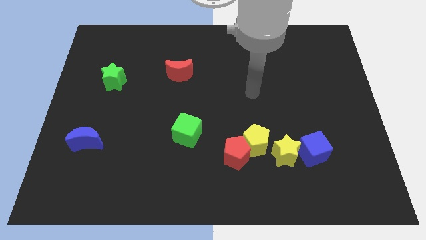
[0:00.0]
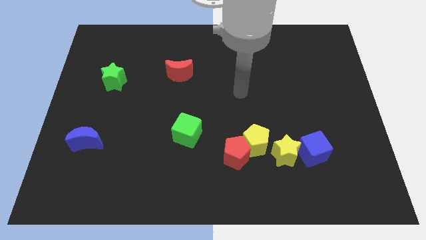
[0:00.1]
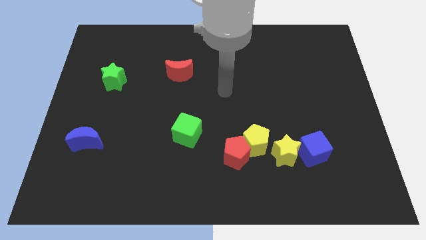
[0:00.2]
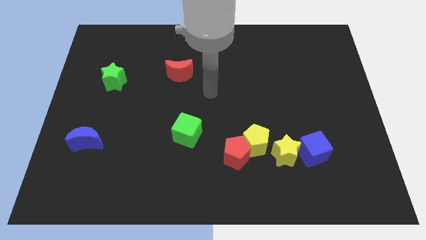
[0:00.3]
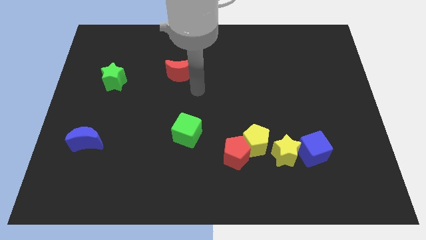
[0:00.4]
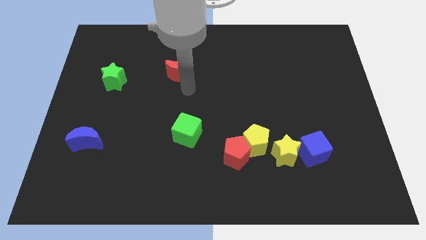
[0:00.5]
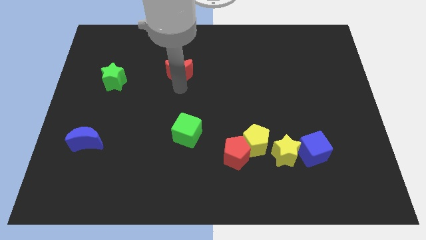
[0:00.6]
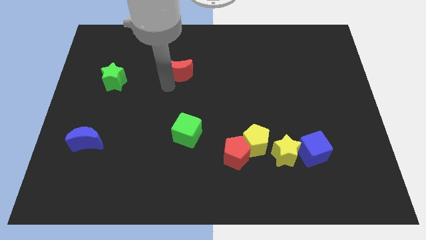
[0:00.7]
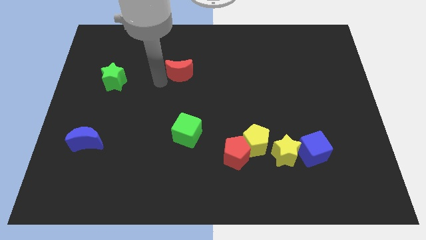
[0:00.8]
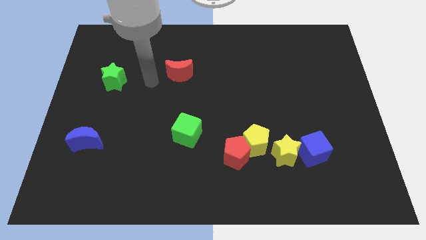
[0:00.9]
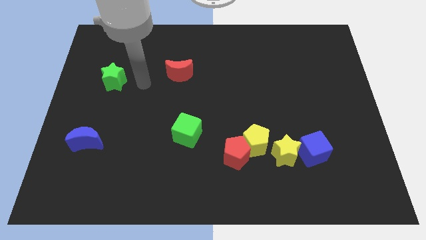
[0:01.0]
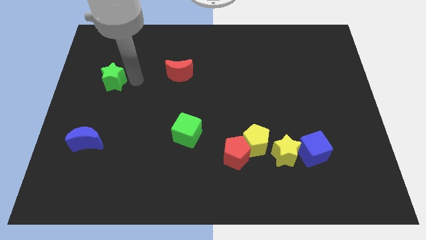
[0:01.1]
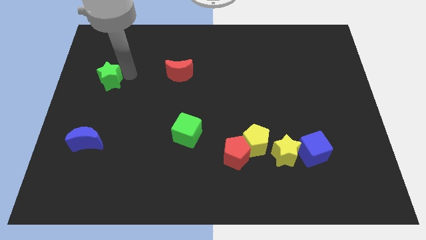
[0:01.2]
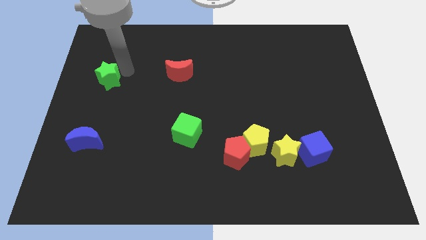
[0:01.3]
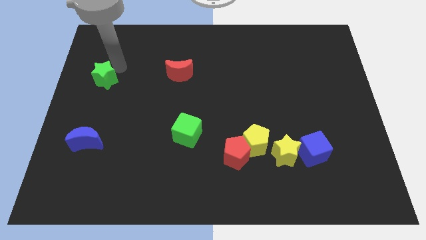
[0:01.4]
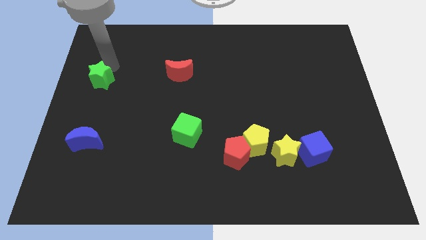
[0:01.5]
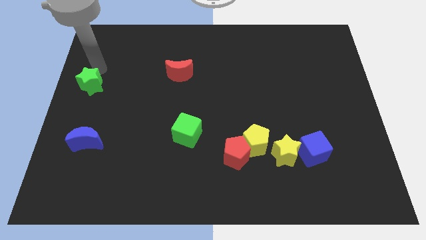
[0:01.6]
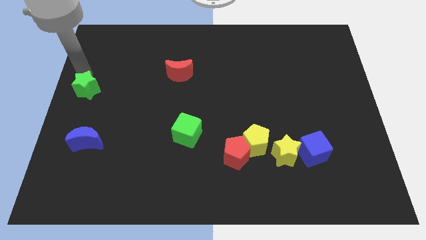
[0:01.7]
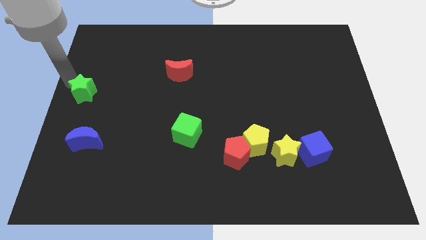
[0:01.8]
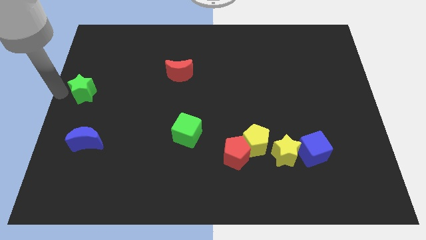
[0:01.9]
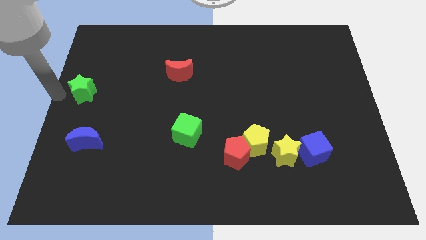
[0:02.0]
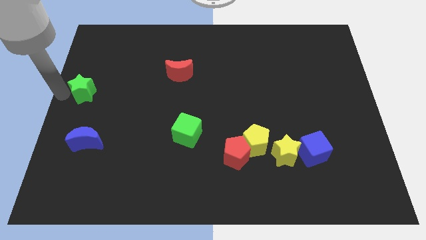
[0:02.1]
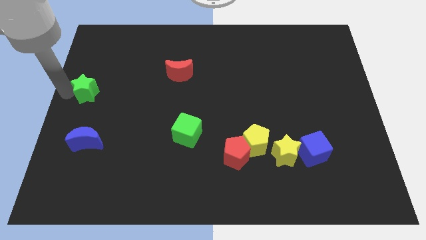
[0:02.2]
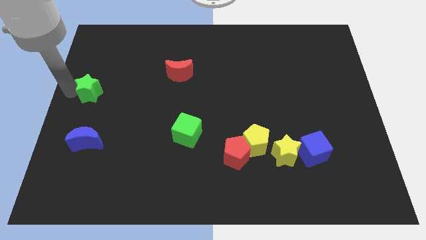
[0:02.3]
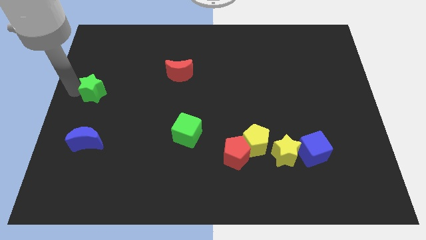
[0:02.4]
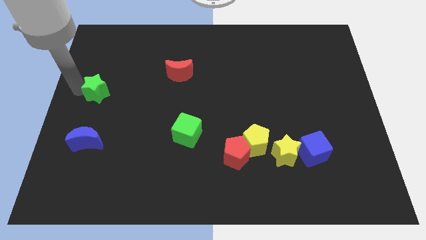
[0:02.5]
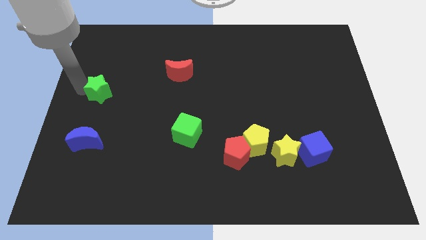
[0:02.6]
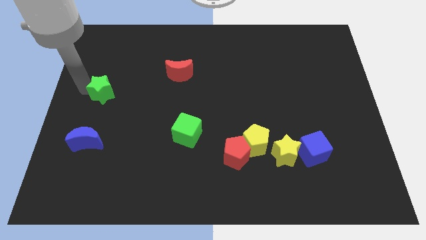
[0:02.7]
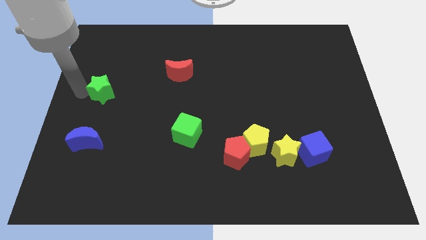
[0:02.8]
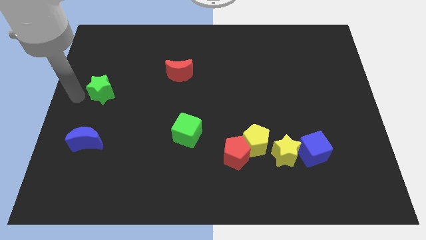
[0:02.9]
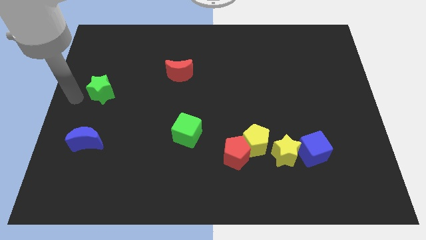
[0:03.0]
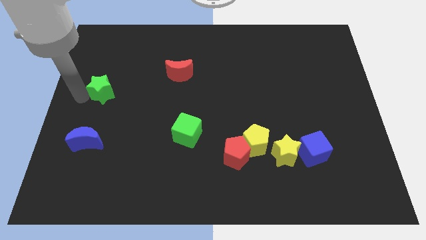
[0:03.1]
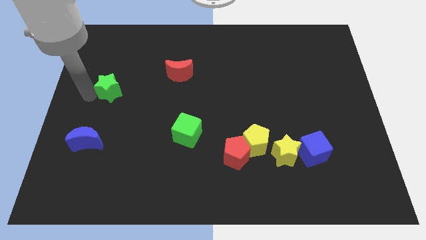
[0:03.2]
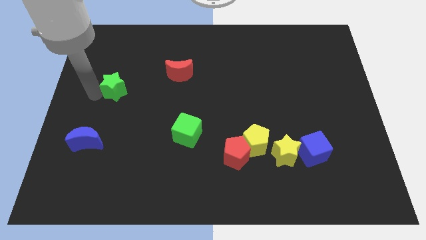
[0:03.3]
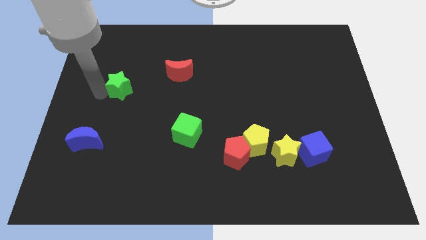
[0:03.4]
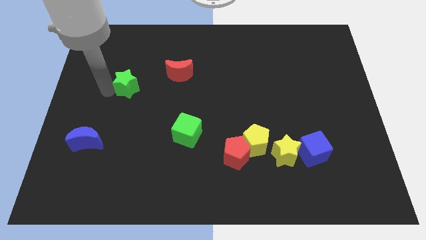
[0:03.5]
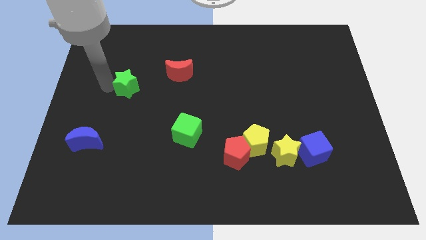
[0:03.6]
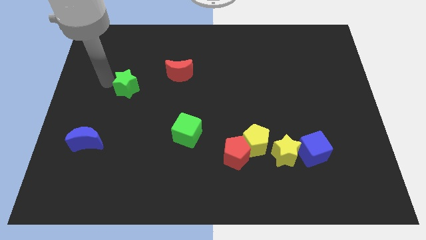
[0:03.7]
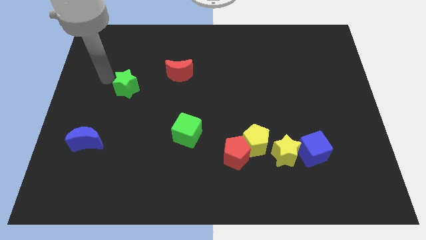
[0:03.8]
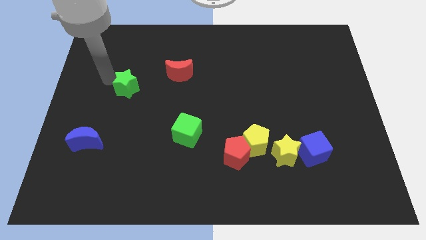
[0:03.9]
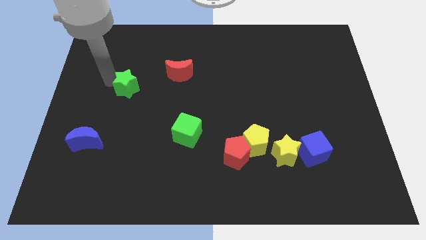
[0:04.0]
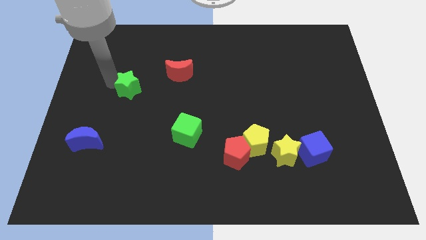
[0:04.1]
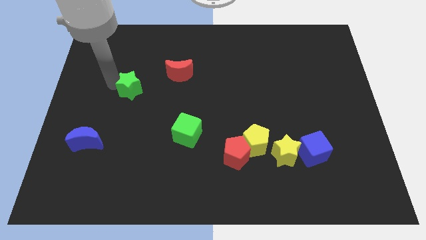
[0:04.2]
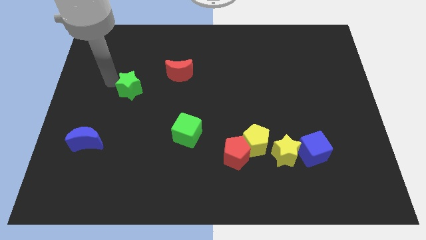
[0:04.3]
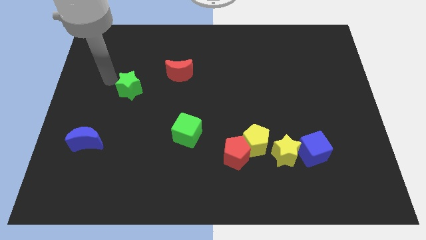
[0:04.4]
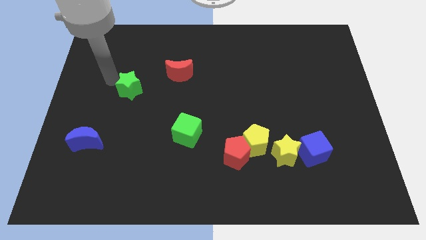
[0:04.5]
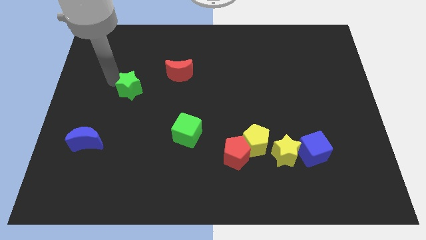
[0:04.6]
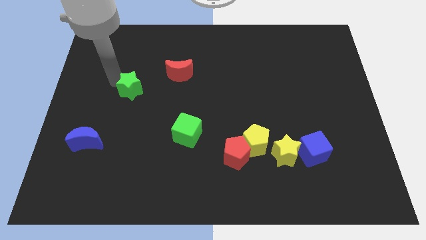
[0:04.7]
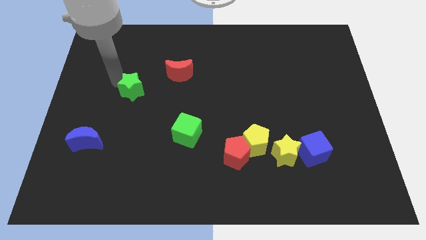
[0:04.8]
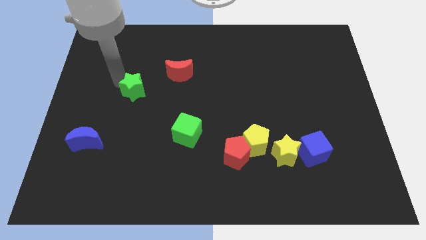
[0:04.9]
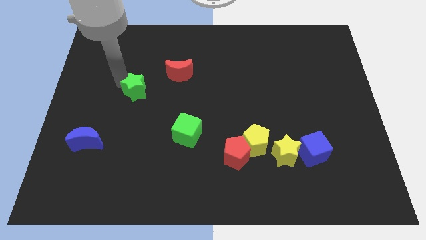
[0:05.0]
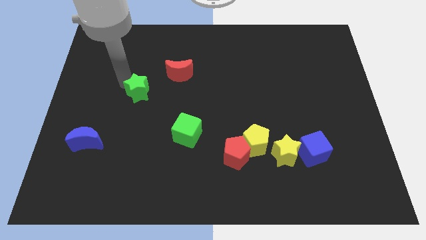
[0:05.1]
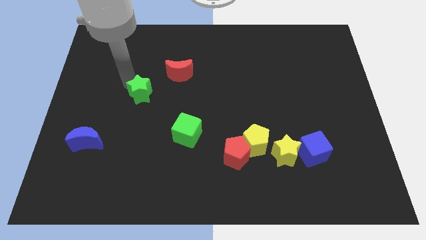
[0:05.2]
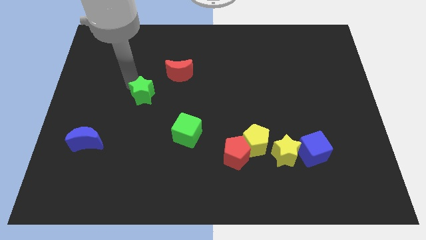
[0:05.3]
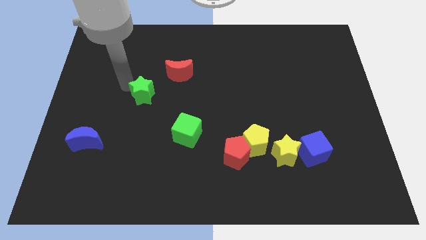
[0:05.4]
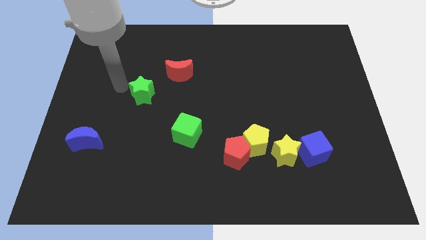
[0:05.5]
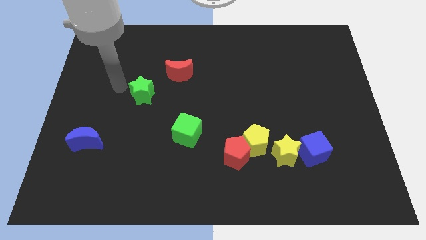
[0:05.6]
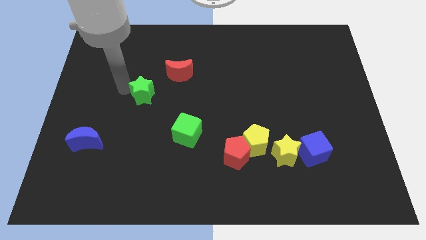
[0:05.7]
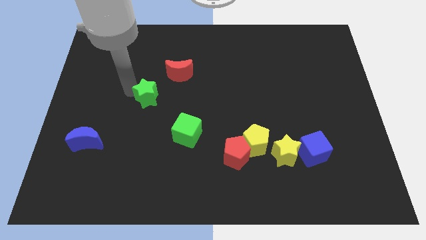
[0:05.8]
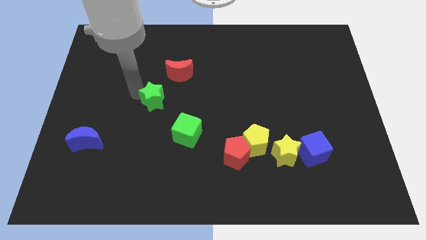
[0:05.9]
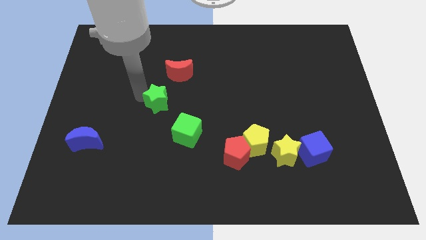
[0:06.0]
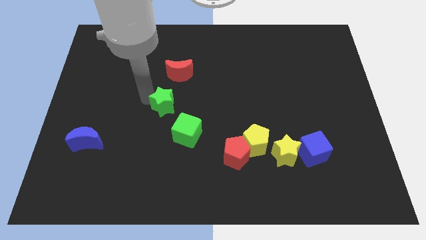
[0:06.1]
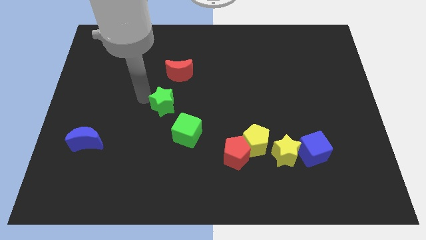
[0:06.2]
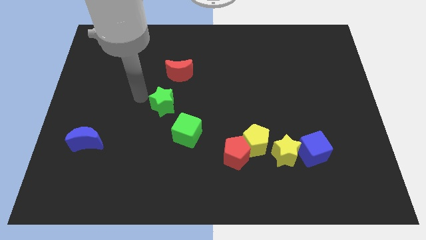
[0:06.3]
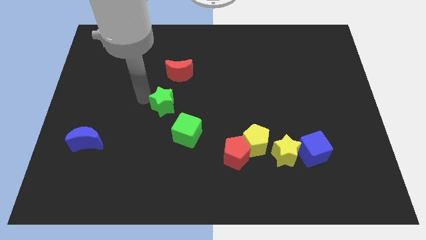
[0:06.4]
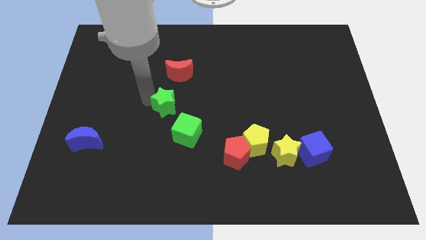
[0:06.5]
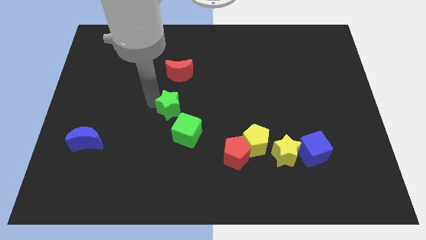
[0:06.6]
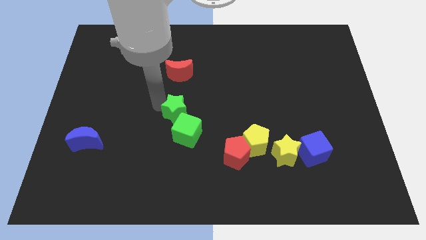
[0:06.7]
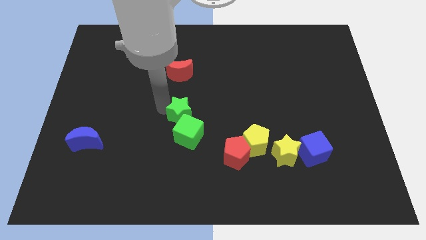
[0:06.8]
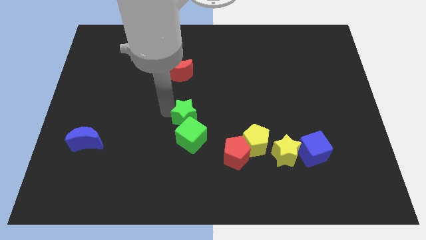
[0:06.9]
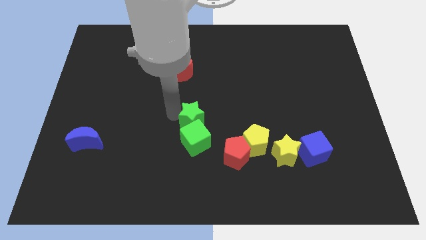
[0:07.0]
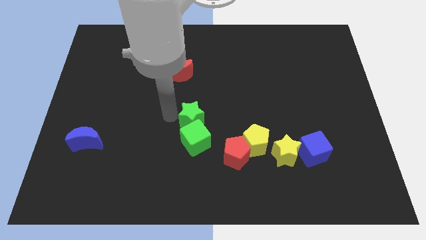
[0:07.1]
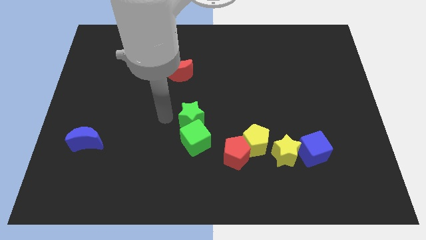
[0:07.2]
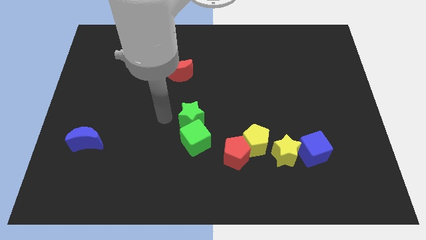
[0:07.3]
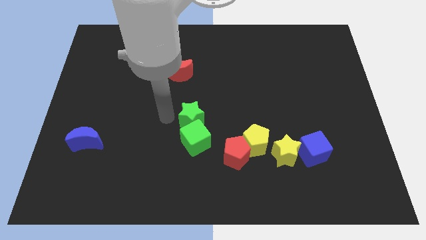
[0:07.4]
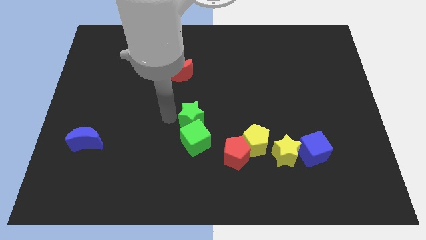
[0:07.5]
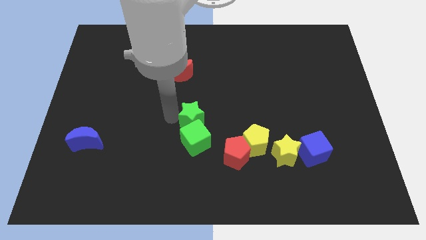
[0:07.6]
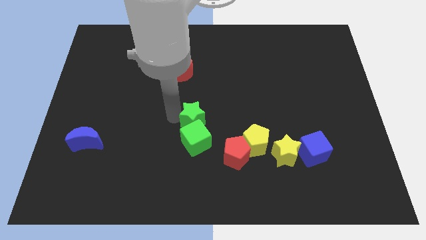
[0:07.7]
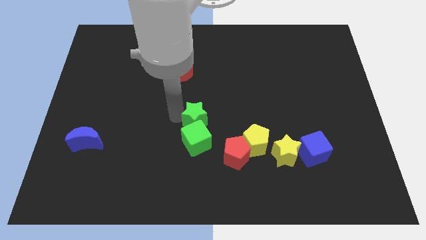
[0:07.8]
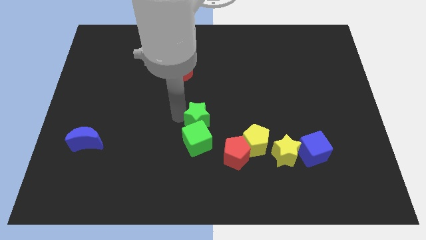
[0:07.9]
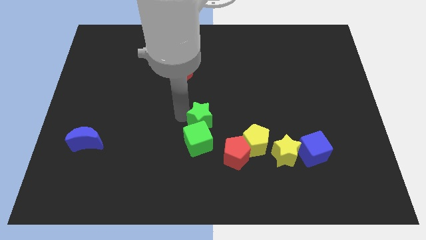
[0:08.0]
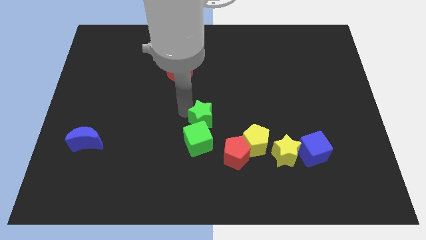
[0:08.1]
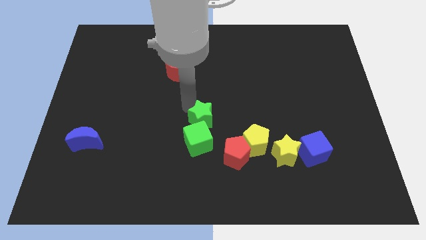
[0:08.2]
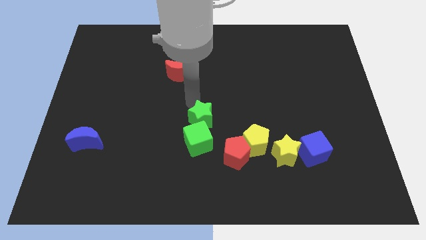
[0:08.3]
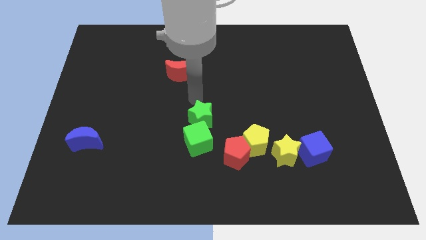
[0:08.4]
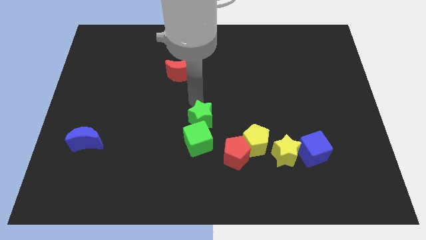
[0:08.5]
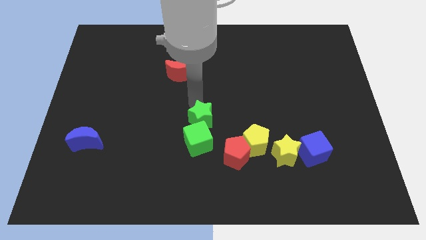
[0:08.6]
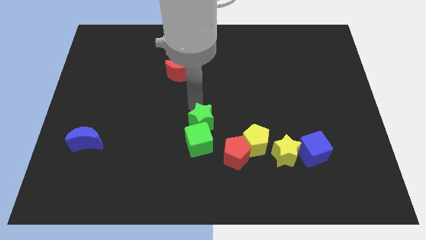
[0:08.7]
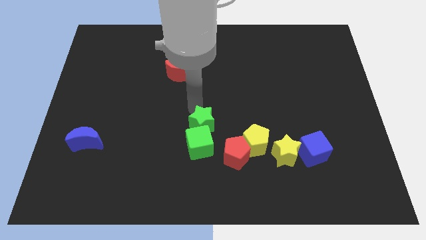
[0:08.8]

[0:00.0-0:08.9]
move the green star to the left side of the yellow pentagon
